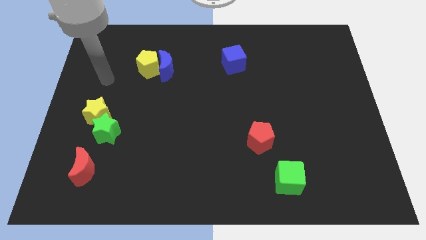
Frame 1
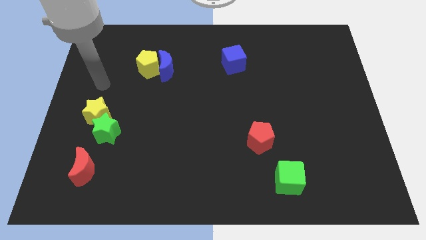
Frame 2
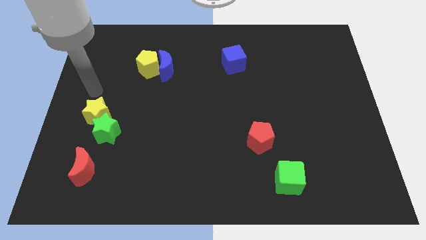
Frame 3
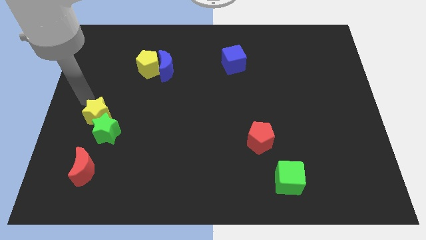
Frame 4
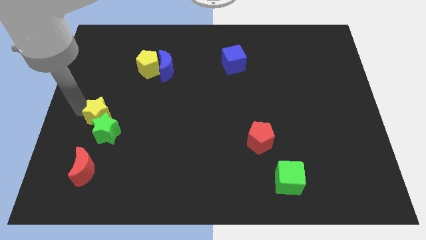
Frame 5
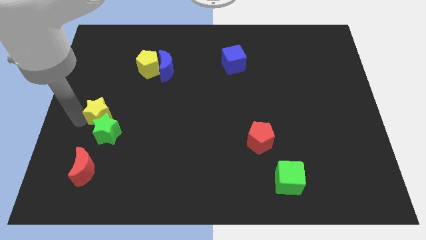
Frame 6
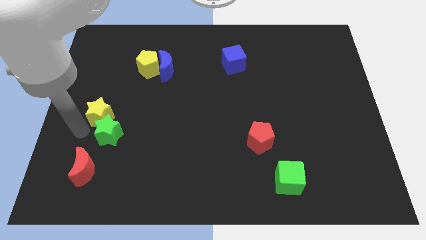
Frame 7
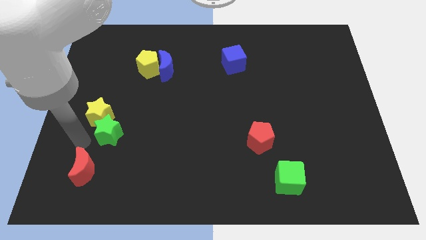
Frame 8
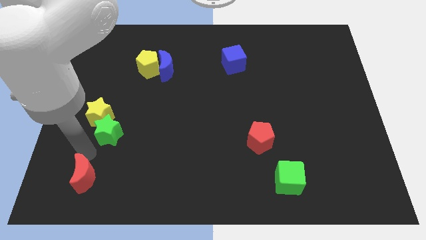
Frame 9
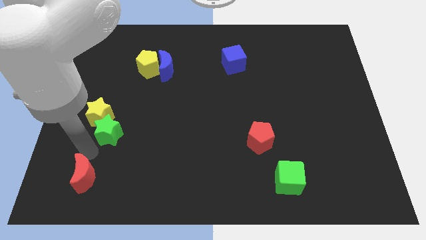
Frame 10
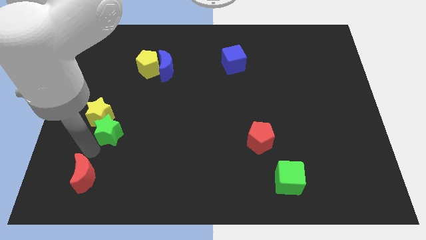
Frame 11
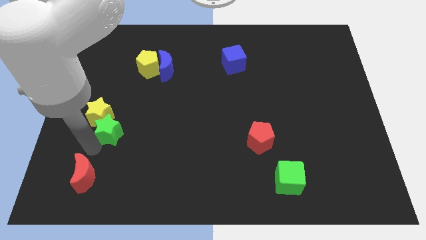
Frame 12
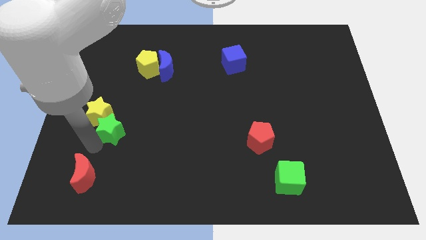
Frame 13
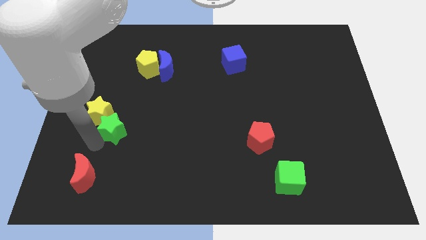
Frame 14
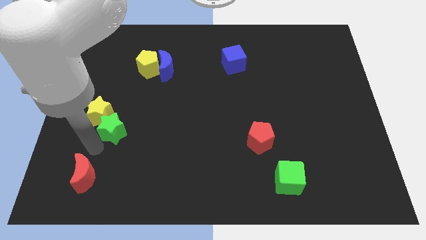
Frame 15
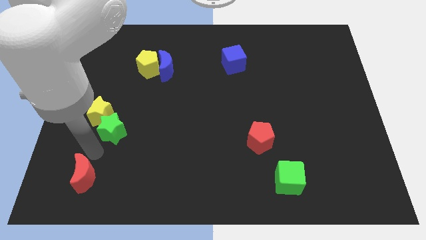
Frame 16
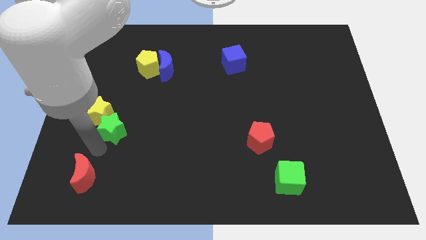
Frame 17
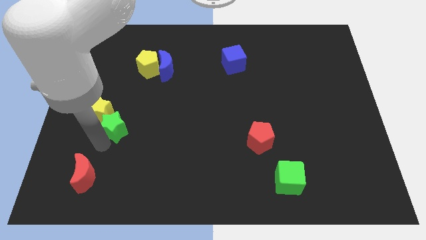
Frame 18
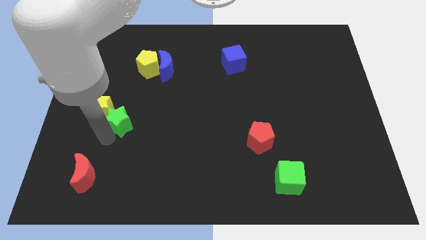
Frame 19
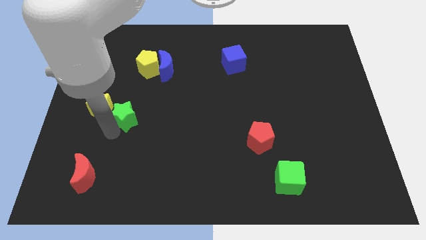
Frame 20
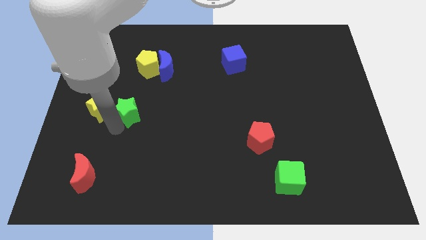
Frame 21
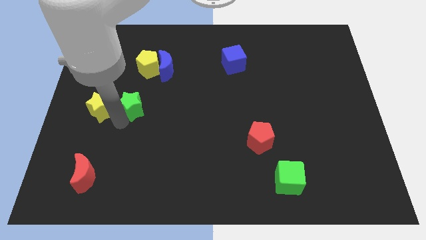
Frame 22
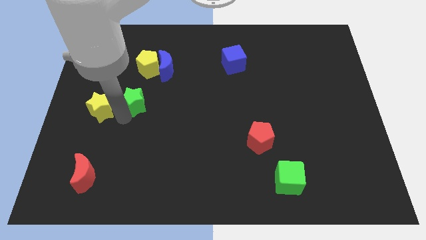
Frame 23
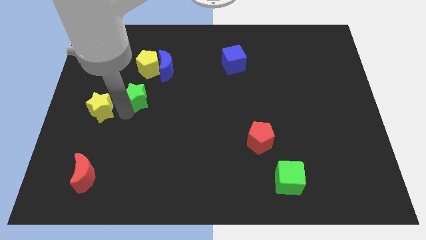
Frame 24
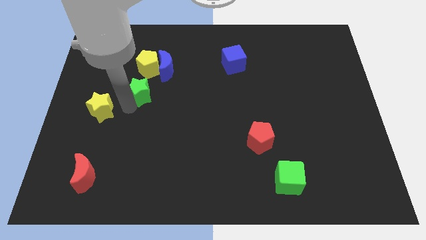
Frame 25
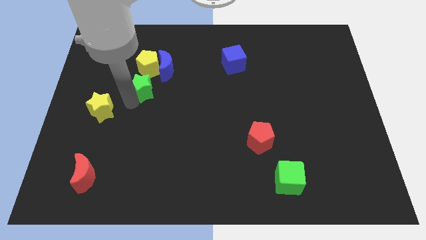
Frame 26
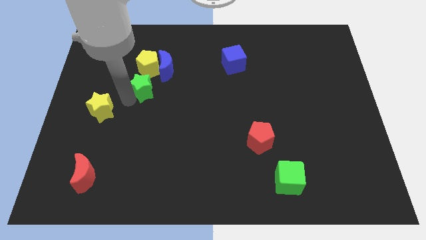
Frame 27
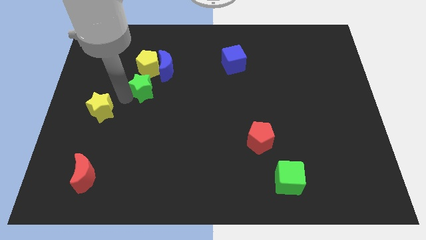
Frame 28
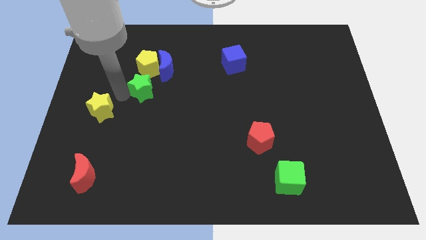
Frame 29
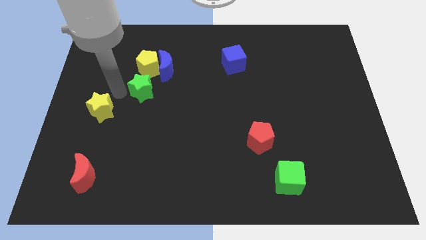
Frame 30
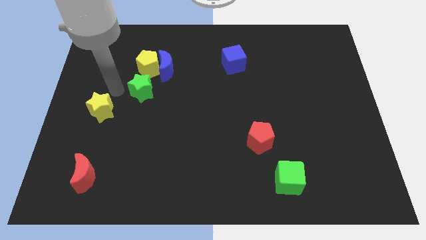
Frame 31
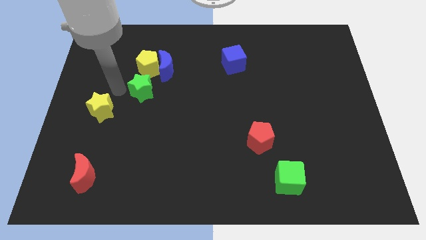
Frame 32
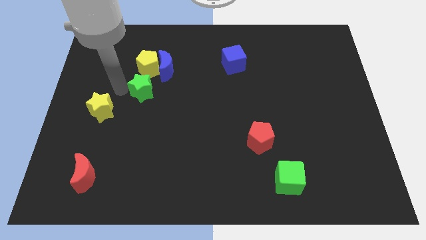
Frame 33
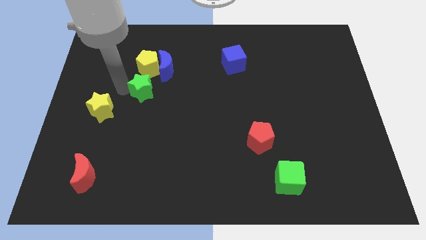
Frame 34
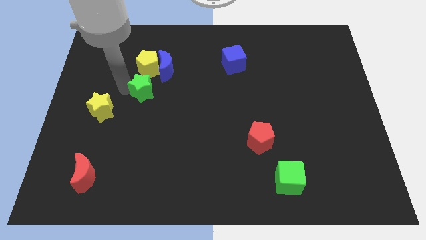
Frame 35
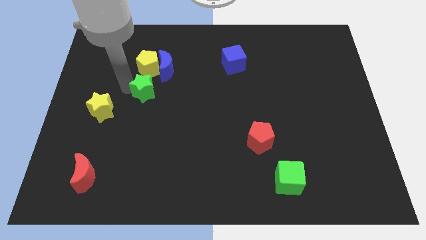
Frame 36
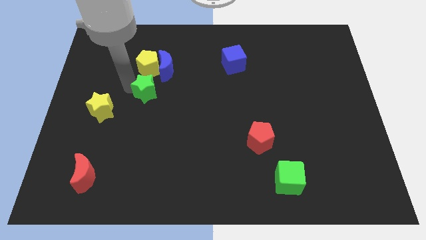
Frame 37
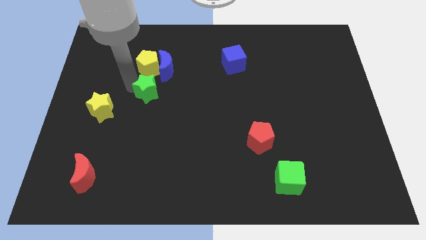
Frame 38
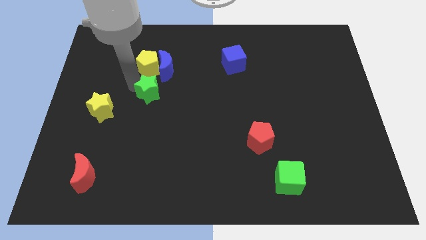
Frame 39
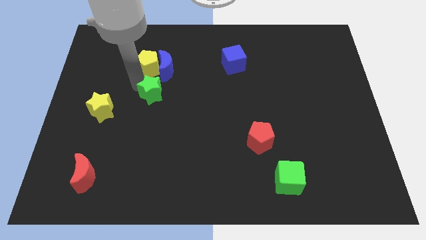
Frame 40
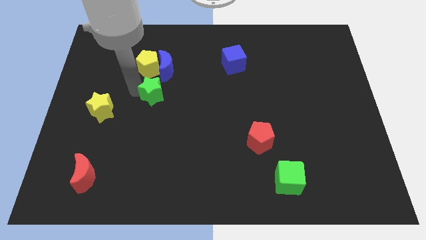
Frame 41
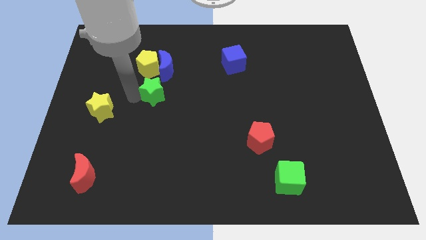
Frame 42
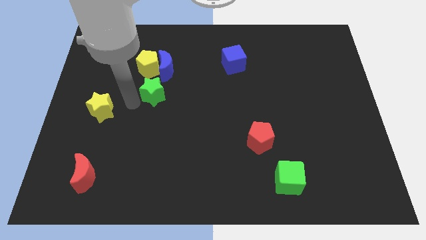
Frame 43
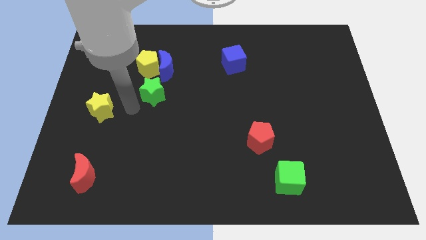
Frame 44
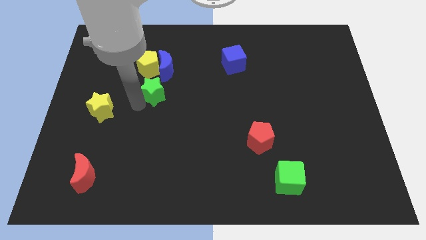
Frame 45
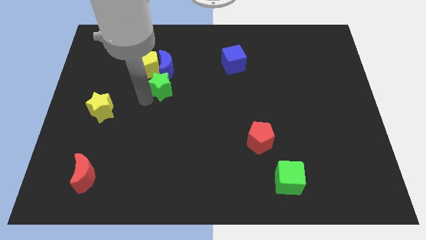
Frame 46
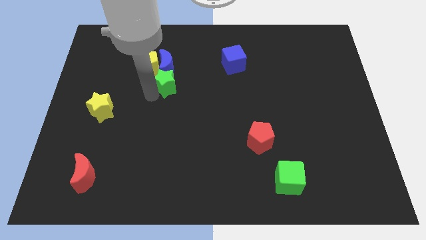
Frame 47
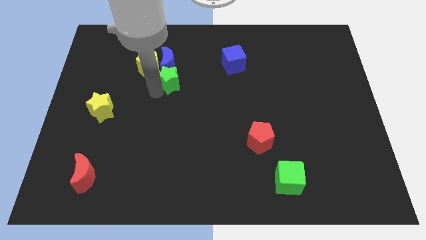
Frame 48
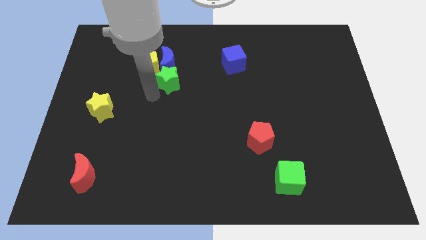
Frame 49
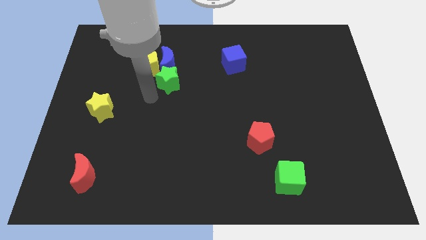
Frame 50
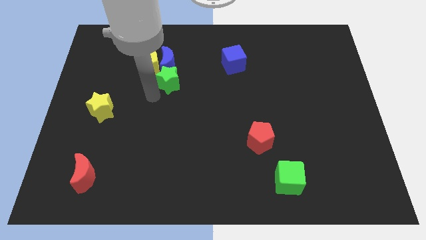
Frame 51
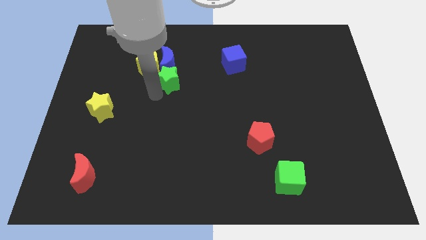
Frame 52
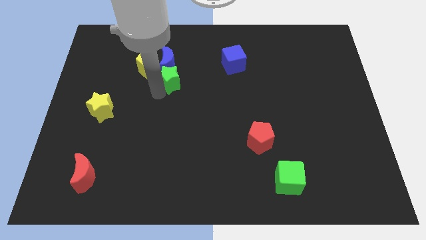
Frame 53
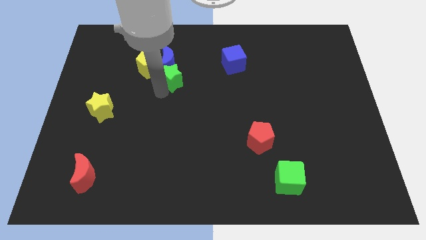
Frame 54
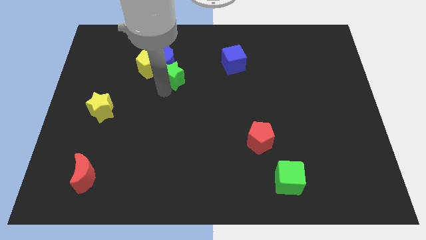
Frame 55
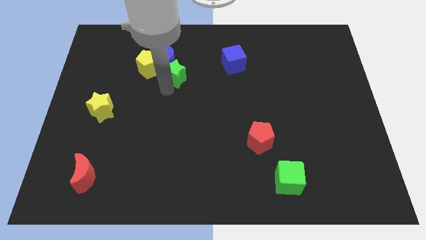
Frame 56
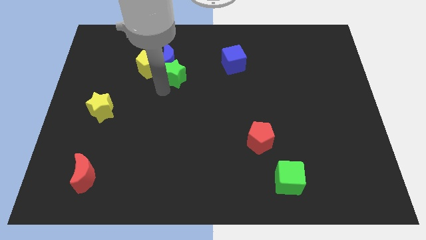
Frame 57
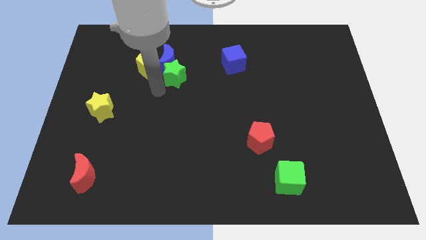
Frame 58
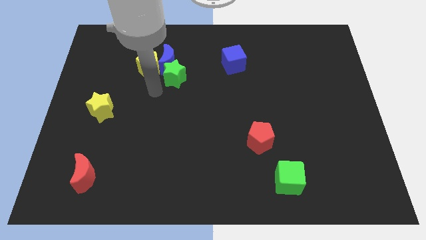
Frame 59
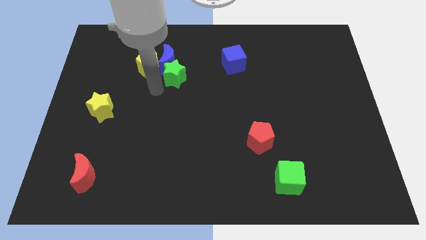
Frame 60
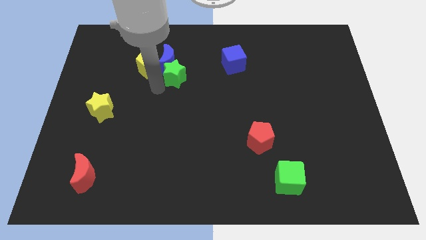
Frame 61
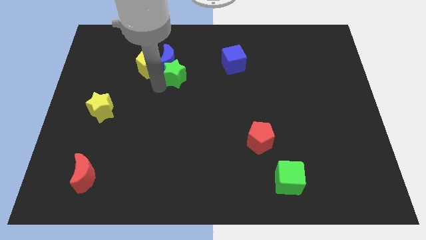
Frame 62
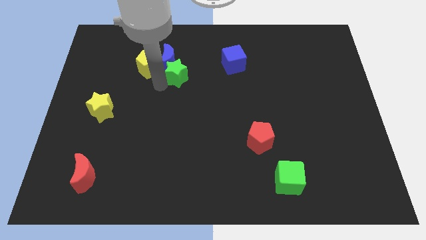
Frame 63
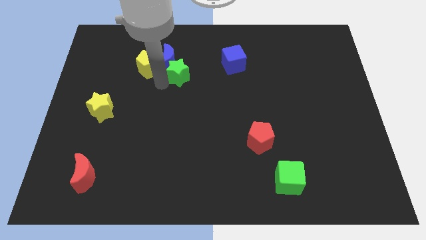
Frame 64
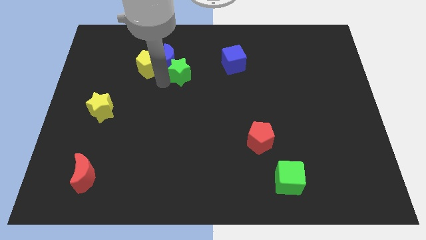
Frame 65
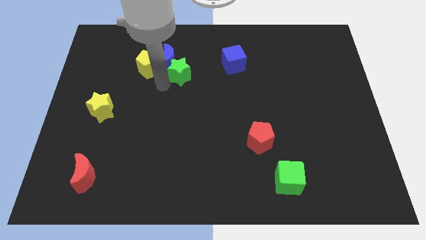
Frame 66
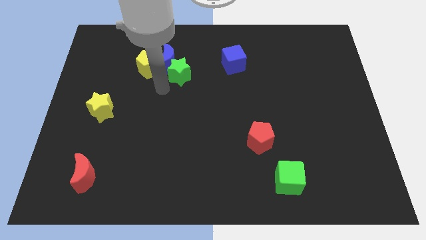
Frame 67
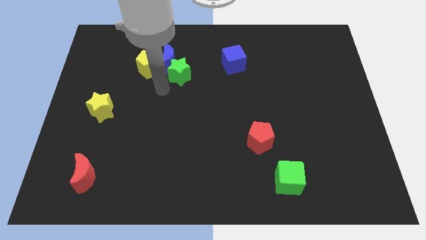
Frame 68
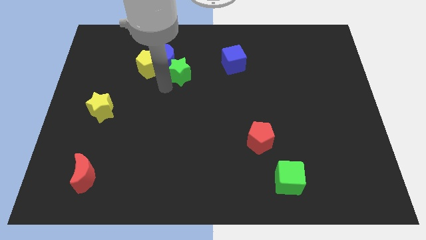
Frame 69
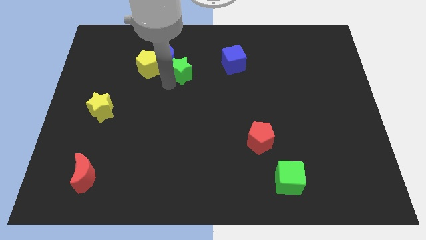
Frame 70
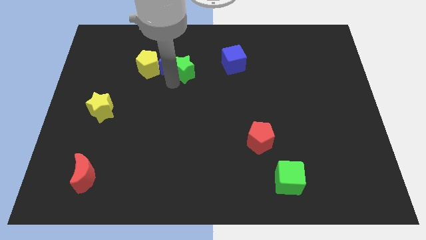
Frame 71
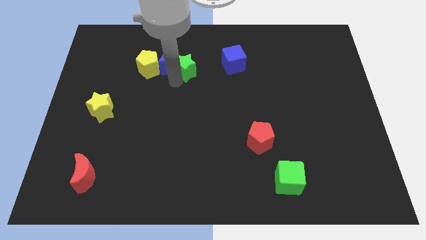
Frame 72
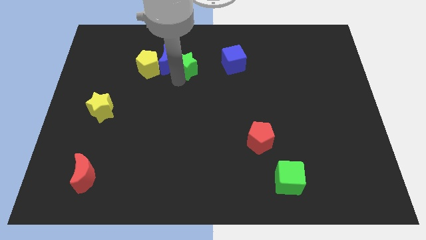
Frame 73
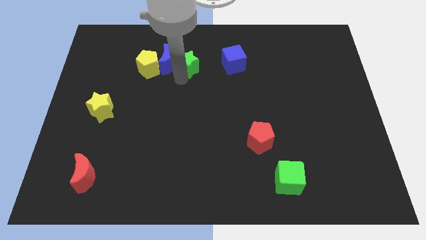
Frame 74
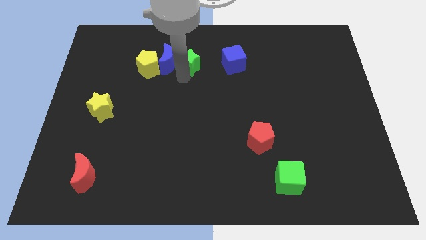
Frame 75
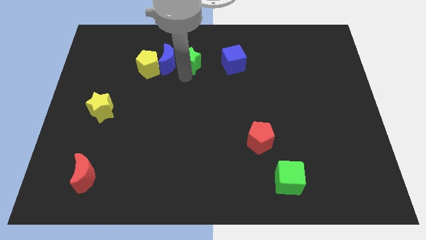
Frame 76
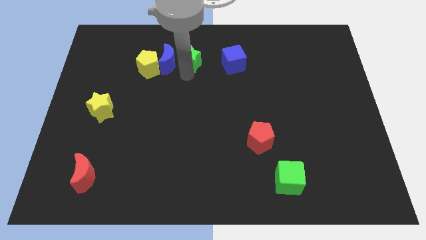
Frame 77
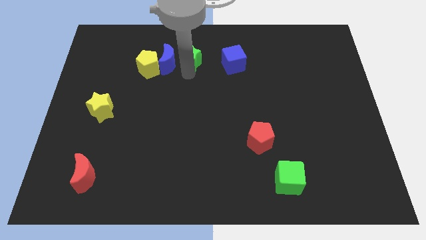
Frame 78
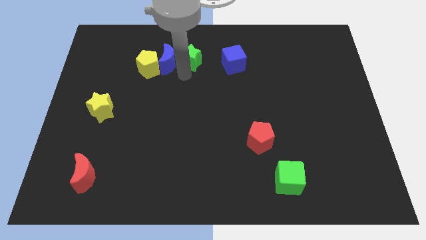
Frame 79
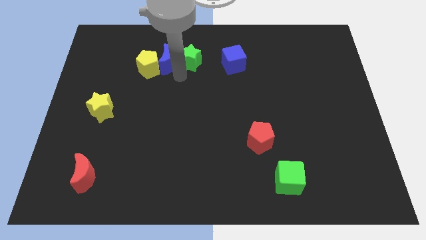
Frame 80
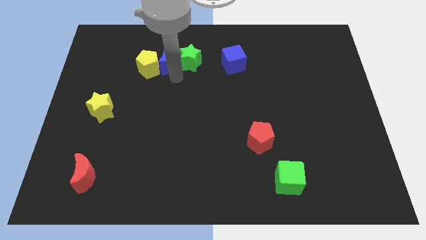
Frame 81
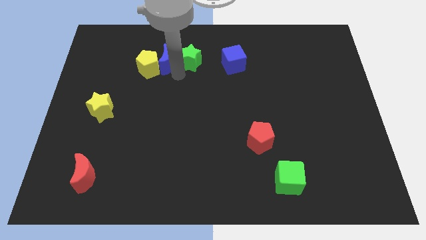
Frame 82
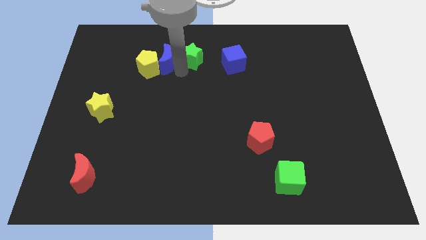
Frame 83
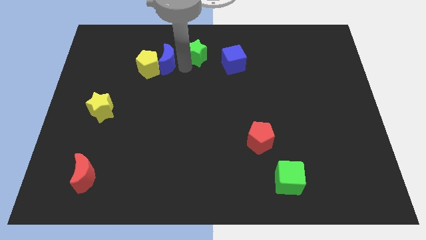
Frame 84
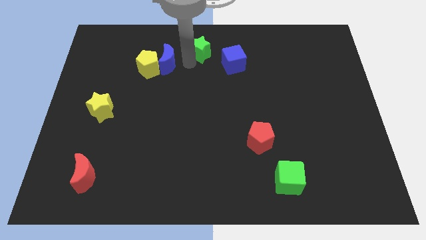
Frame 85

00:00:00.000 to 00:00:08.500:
move the green star to the top side
